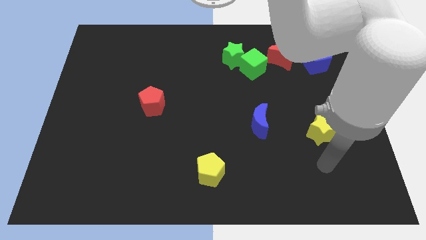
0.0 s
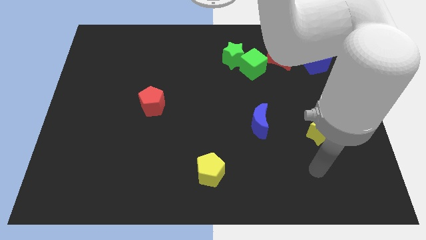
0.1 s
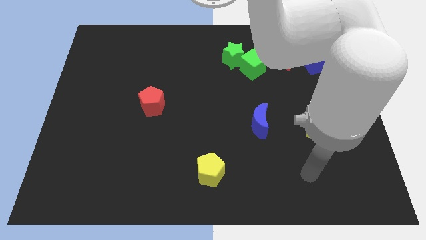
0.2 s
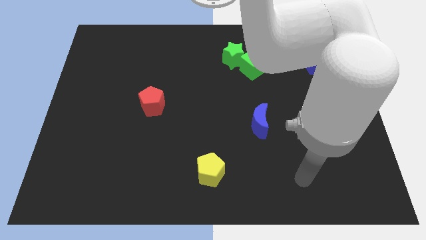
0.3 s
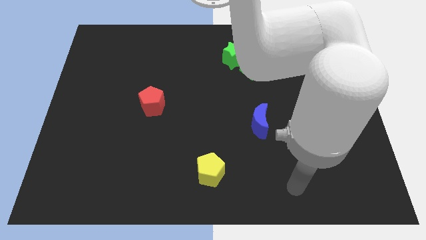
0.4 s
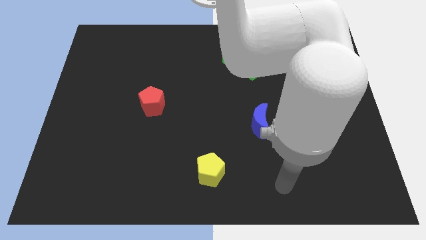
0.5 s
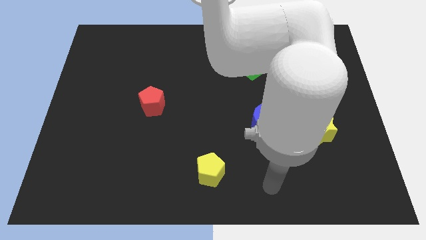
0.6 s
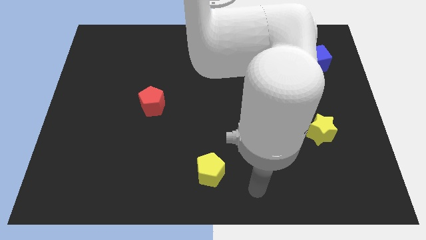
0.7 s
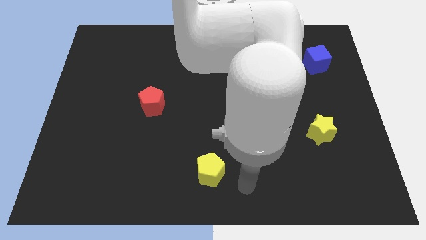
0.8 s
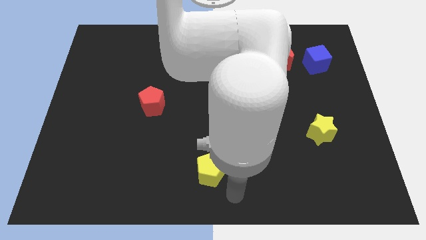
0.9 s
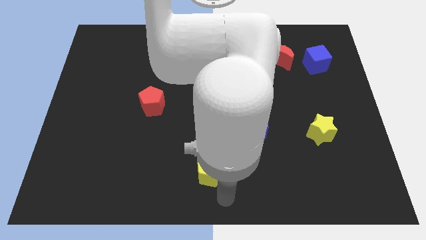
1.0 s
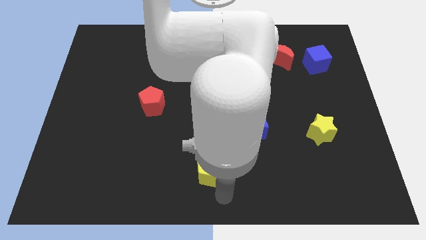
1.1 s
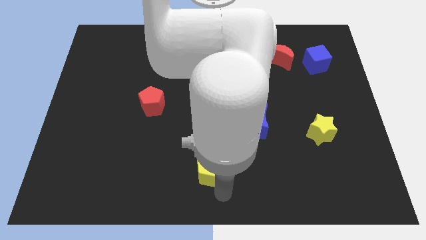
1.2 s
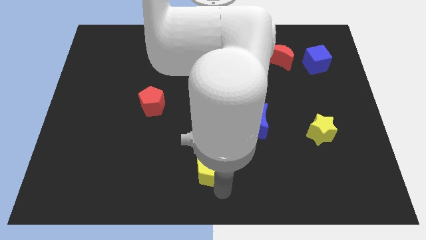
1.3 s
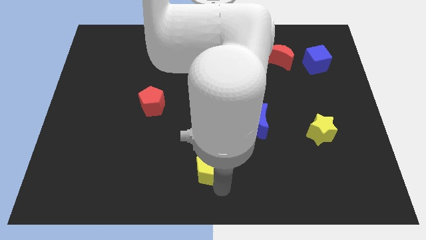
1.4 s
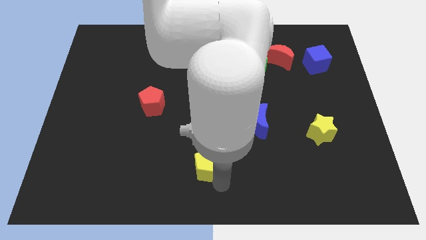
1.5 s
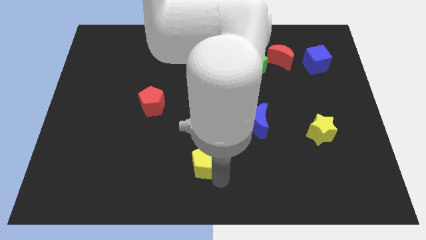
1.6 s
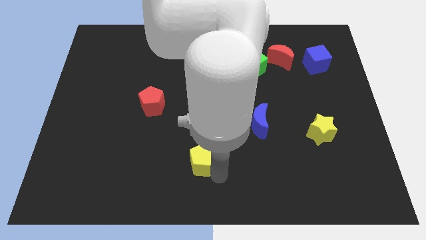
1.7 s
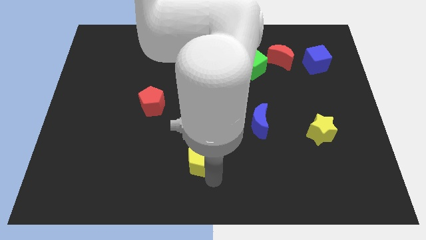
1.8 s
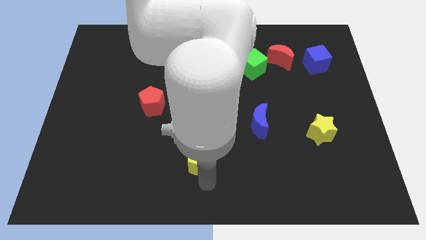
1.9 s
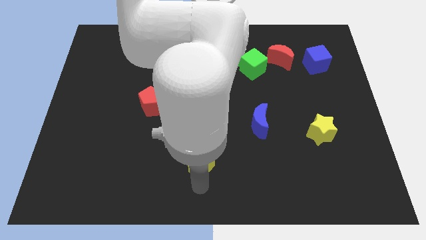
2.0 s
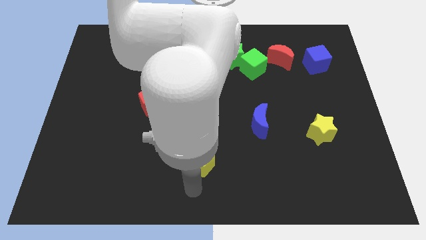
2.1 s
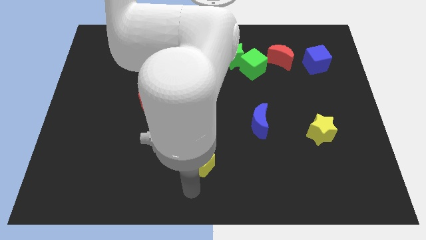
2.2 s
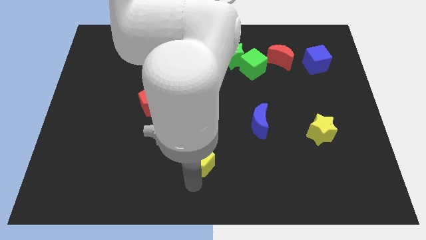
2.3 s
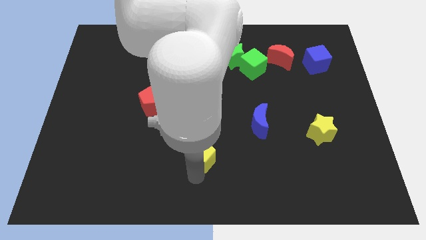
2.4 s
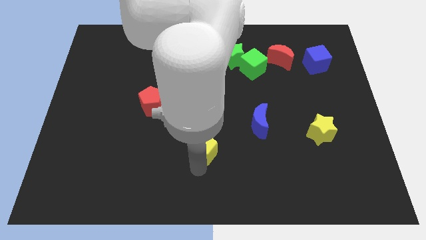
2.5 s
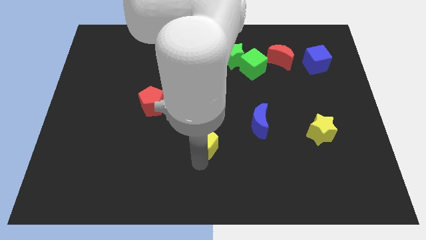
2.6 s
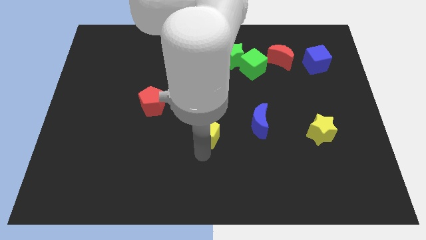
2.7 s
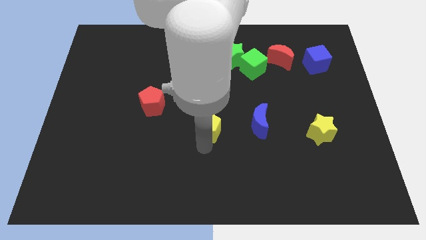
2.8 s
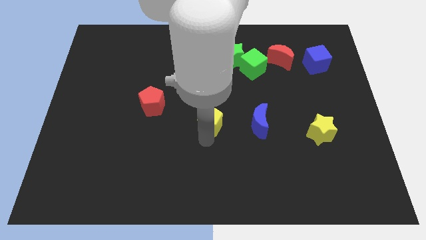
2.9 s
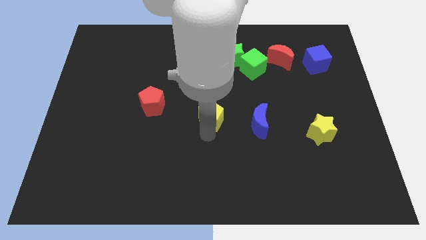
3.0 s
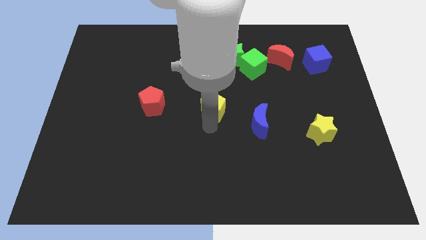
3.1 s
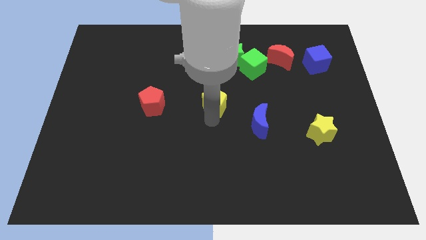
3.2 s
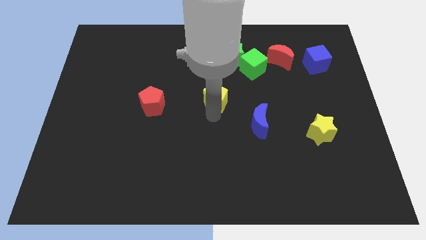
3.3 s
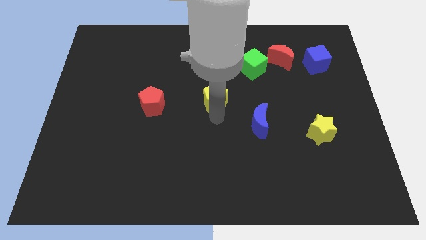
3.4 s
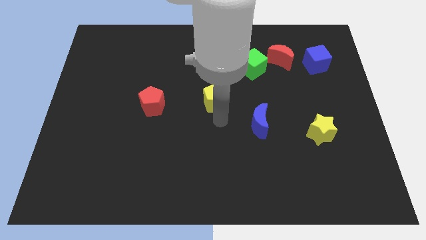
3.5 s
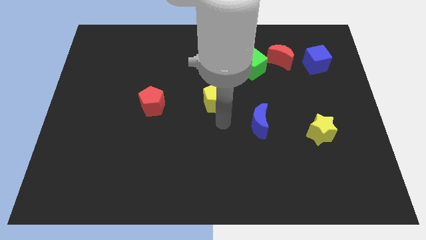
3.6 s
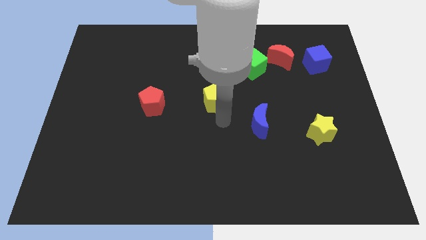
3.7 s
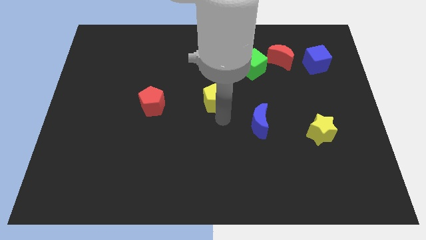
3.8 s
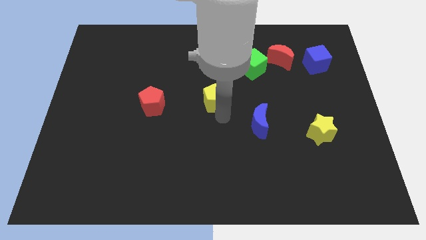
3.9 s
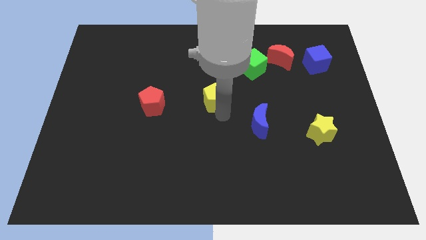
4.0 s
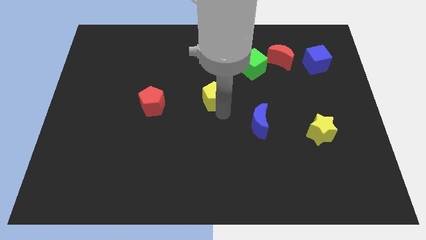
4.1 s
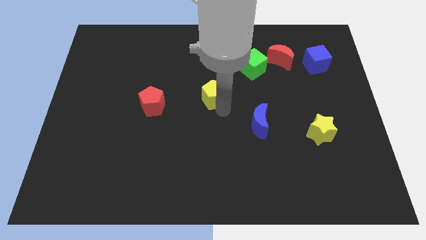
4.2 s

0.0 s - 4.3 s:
slide the yellow pentagon up

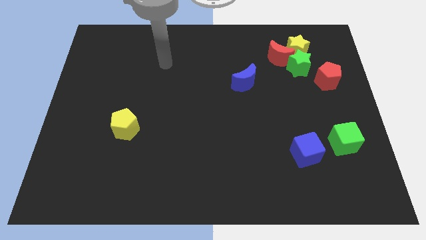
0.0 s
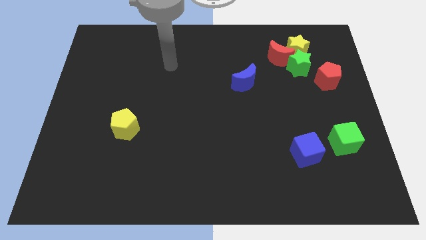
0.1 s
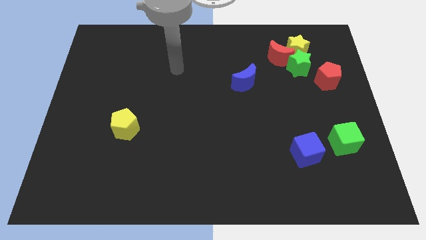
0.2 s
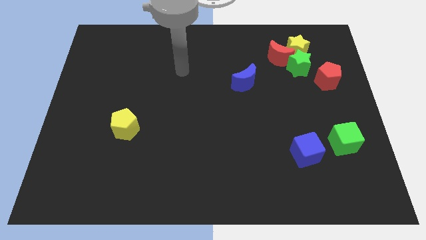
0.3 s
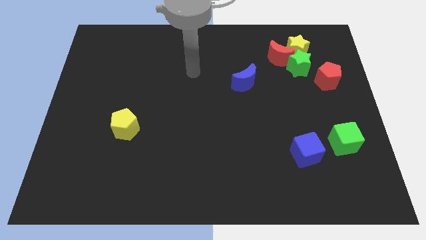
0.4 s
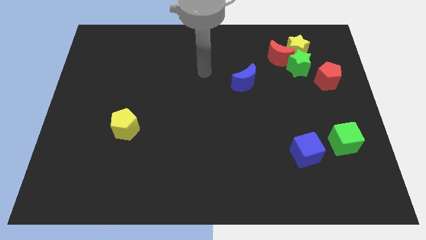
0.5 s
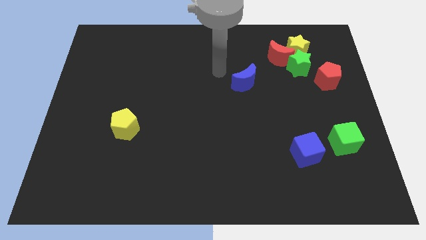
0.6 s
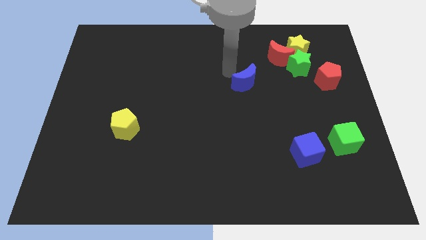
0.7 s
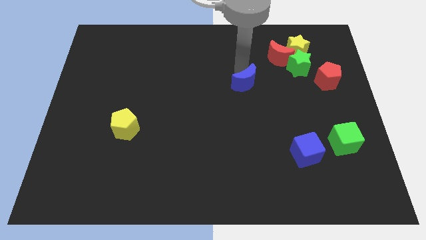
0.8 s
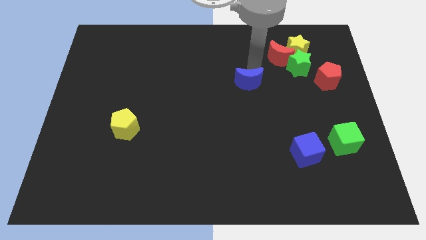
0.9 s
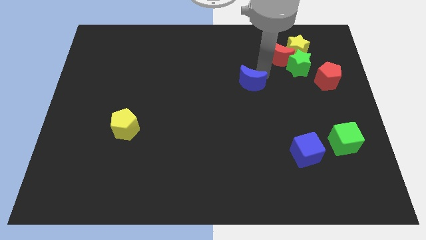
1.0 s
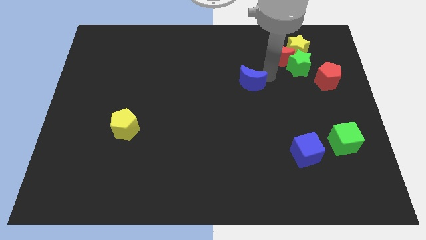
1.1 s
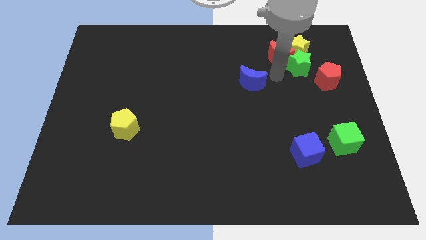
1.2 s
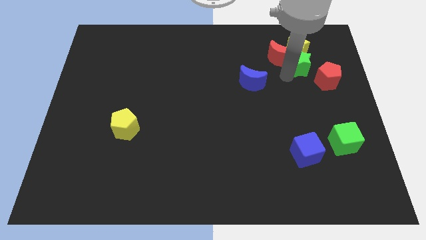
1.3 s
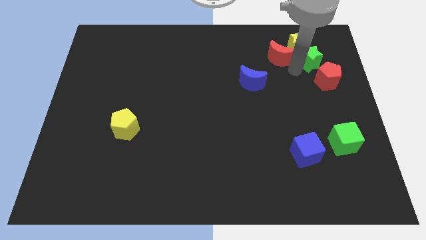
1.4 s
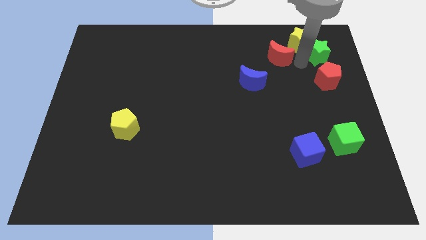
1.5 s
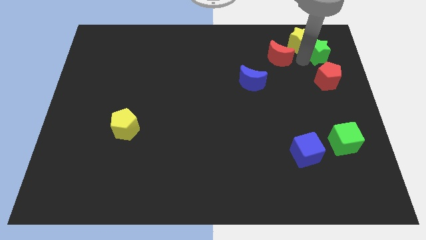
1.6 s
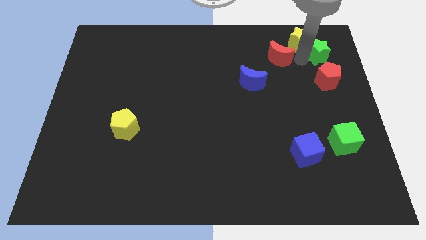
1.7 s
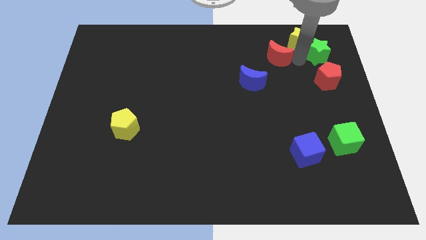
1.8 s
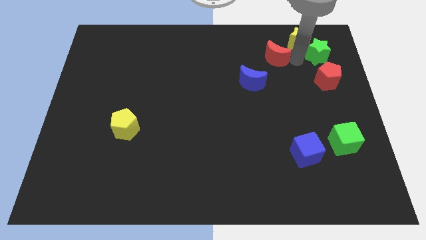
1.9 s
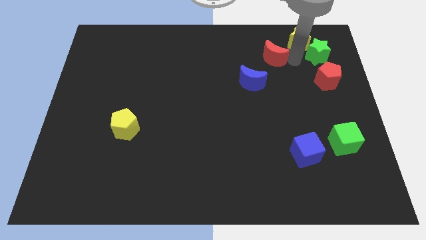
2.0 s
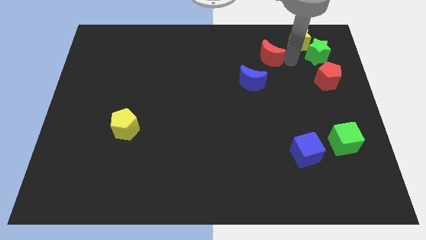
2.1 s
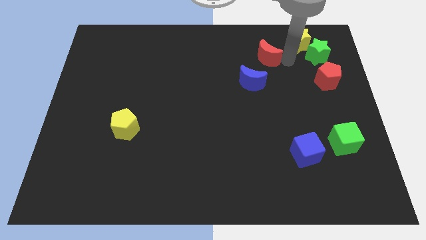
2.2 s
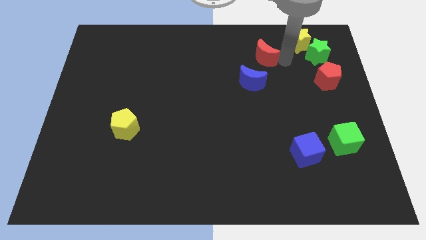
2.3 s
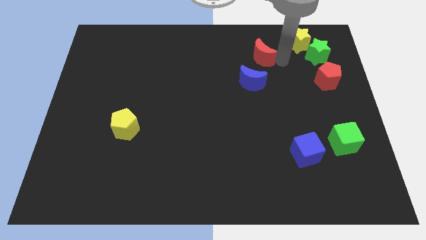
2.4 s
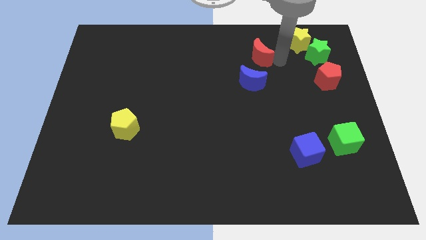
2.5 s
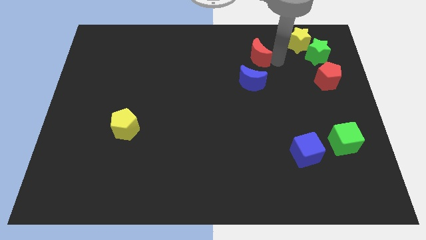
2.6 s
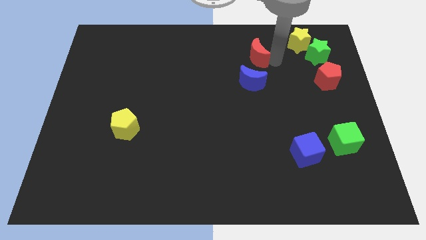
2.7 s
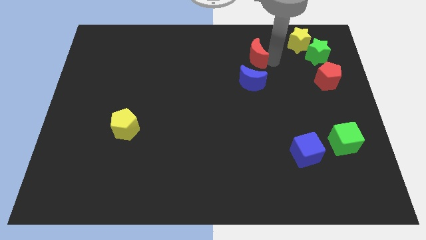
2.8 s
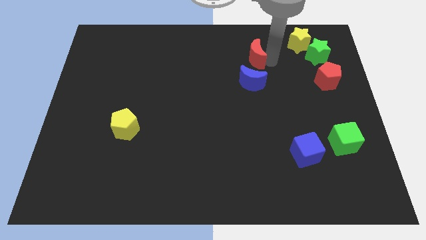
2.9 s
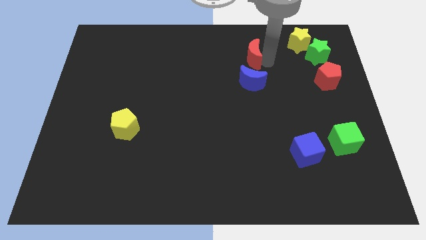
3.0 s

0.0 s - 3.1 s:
slide the red moon left a bit
